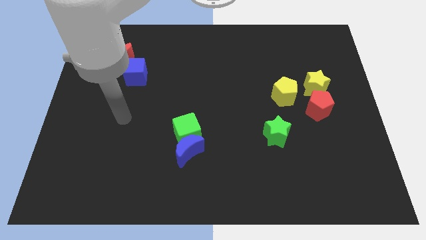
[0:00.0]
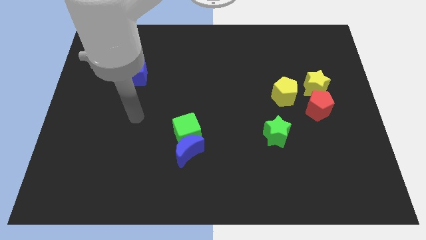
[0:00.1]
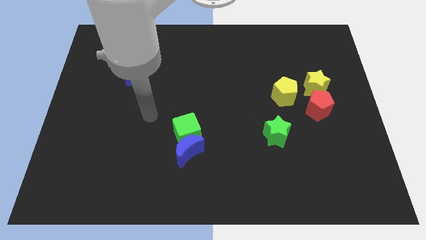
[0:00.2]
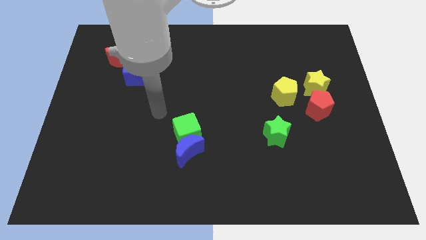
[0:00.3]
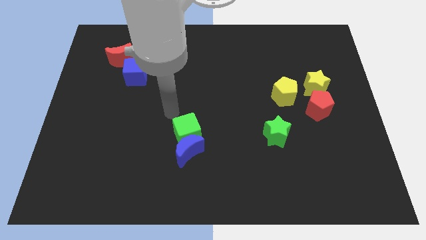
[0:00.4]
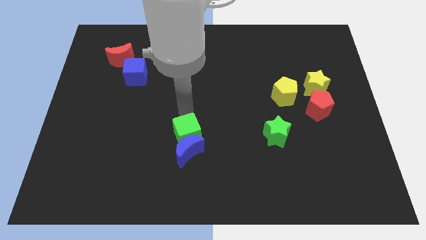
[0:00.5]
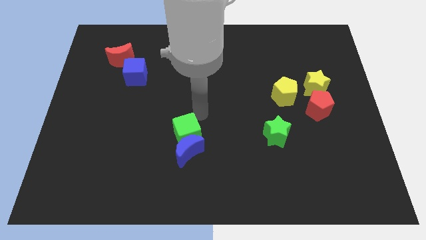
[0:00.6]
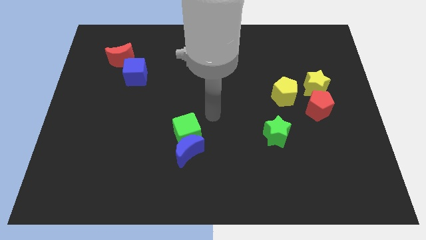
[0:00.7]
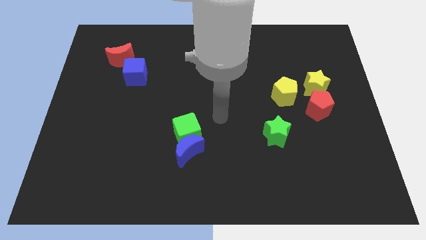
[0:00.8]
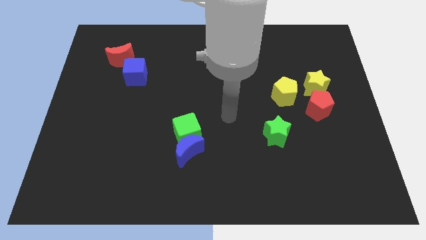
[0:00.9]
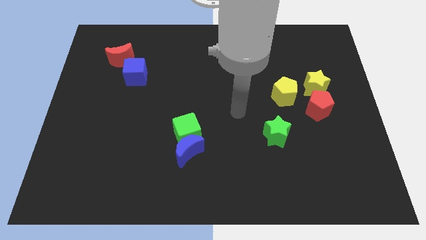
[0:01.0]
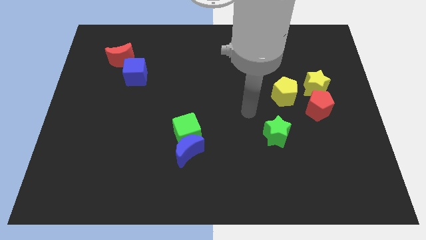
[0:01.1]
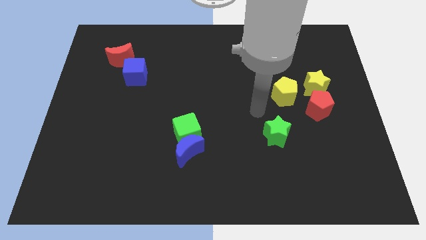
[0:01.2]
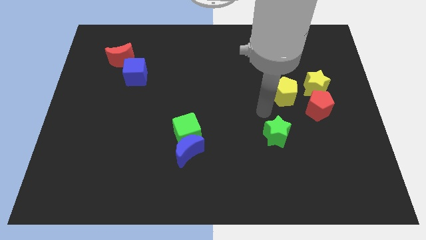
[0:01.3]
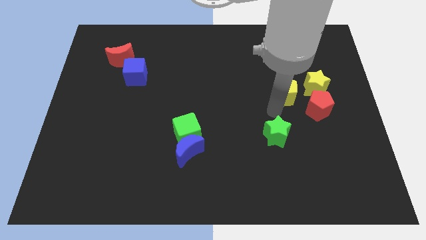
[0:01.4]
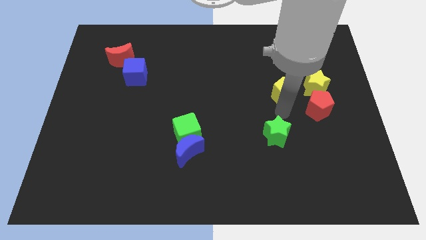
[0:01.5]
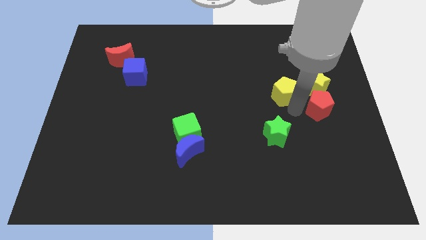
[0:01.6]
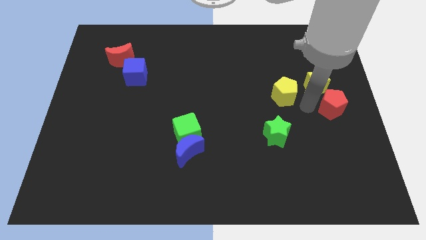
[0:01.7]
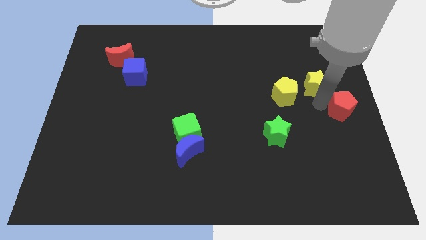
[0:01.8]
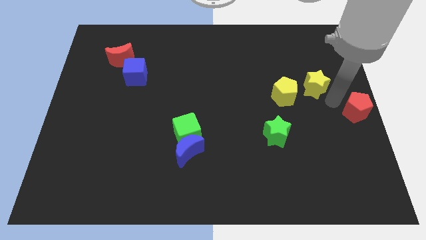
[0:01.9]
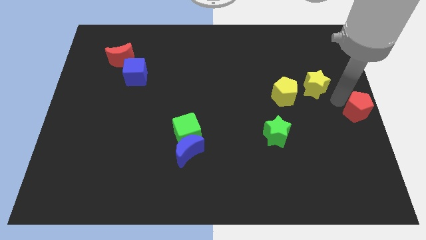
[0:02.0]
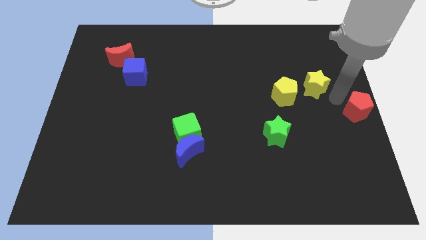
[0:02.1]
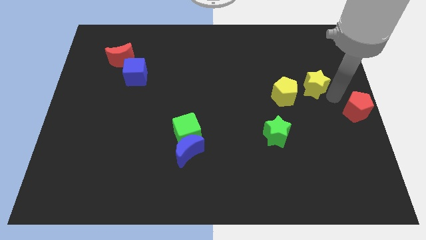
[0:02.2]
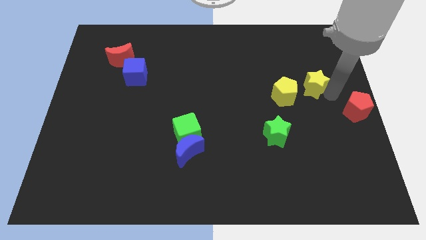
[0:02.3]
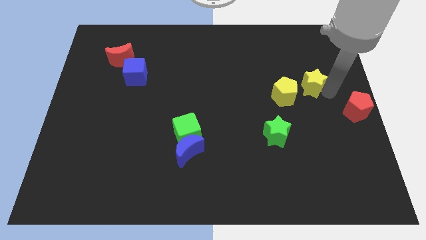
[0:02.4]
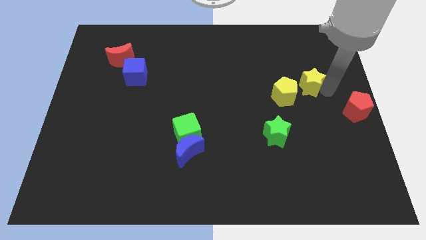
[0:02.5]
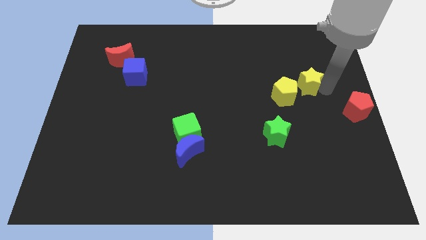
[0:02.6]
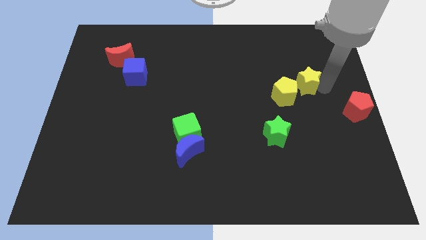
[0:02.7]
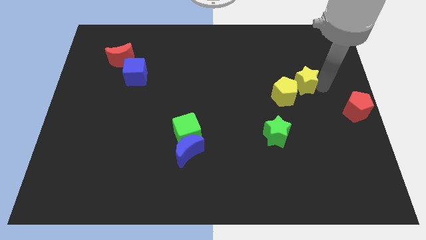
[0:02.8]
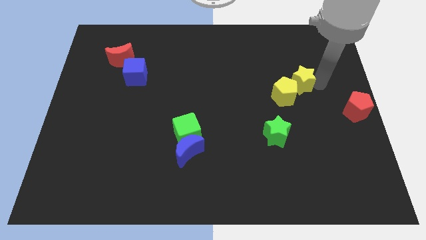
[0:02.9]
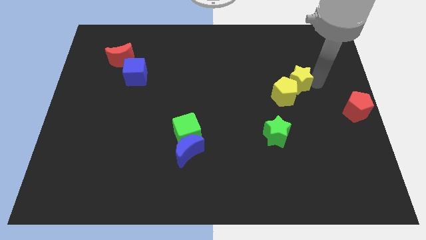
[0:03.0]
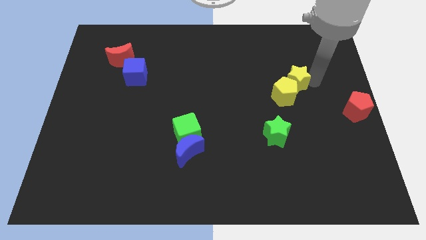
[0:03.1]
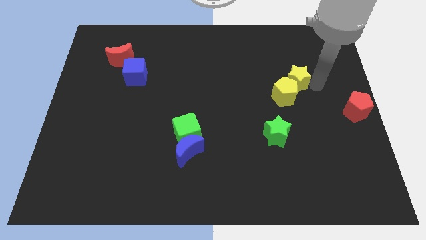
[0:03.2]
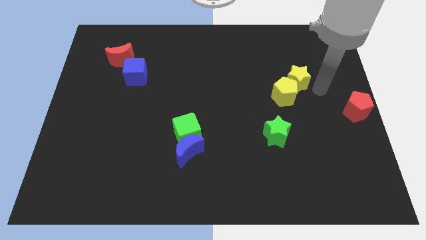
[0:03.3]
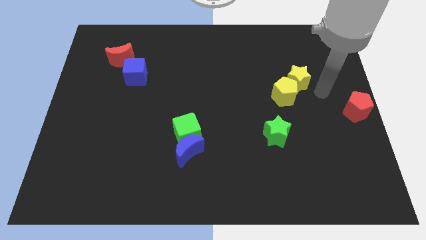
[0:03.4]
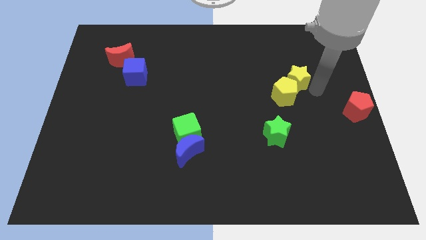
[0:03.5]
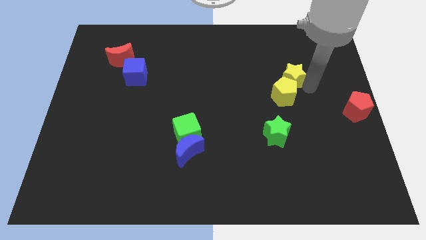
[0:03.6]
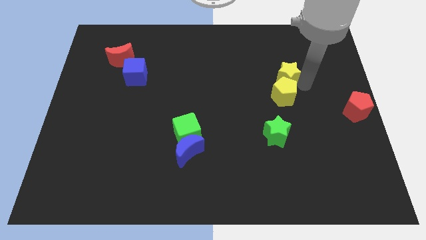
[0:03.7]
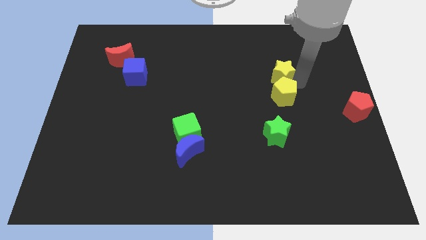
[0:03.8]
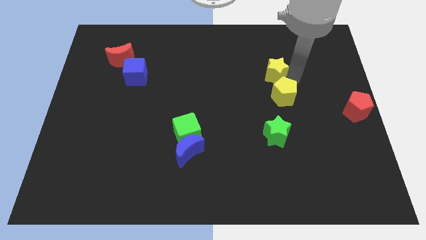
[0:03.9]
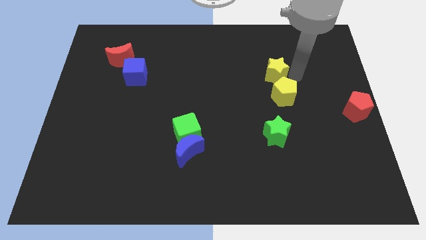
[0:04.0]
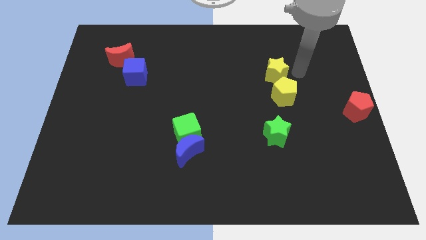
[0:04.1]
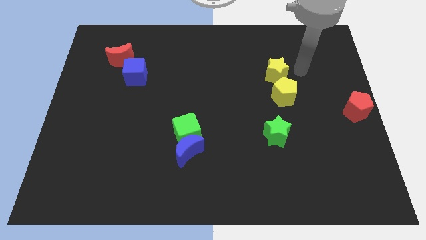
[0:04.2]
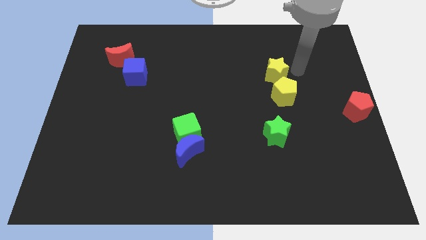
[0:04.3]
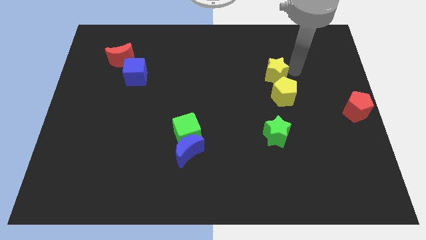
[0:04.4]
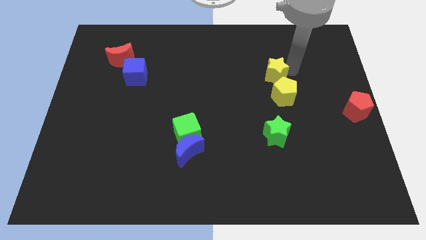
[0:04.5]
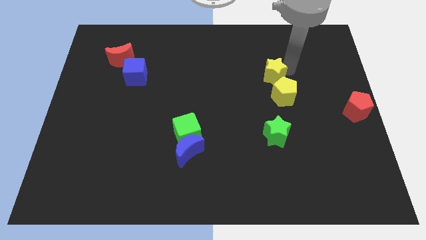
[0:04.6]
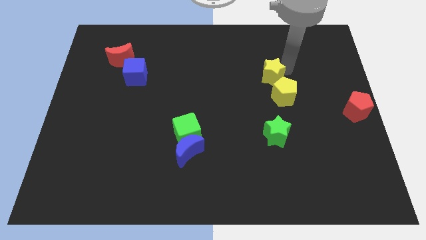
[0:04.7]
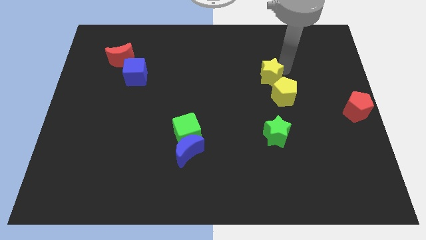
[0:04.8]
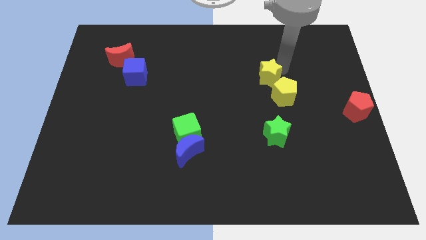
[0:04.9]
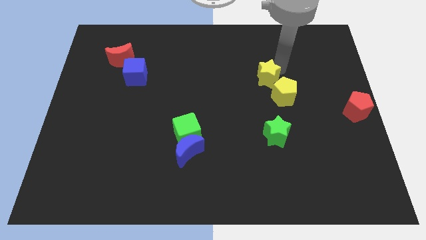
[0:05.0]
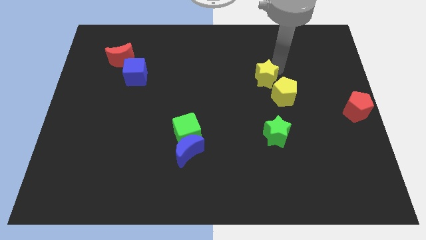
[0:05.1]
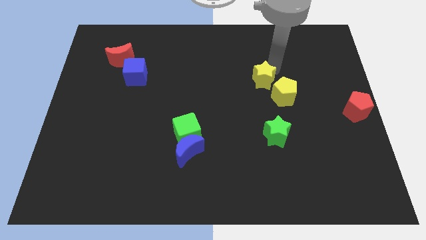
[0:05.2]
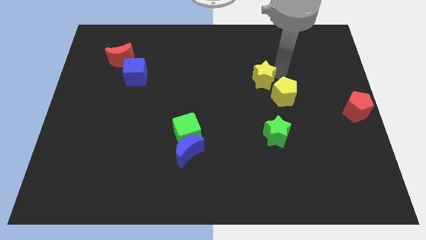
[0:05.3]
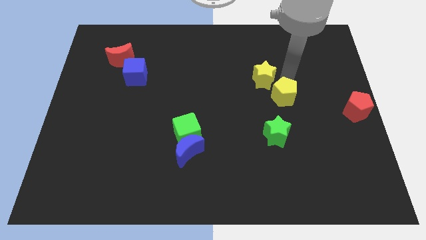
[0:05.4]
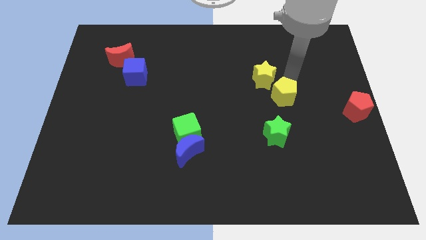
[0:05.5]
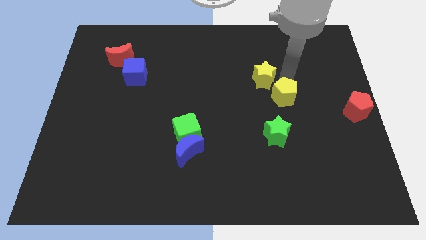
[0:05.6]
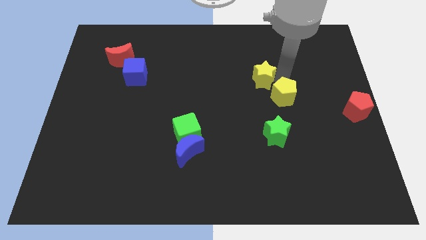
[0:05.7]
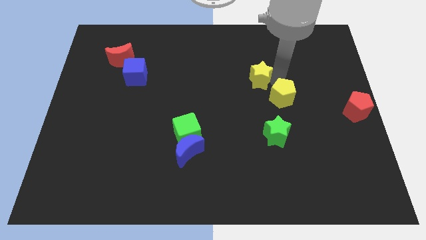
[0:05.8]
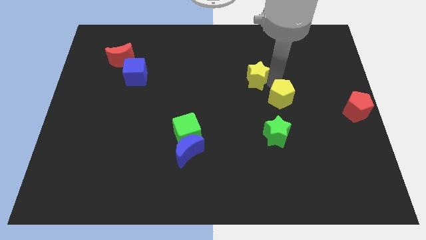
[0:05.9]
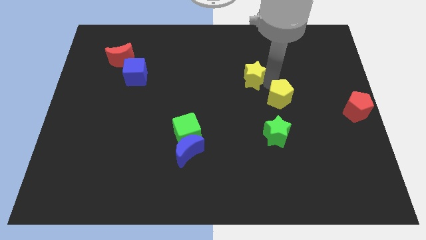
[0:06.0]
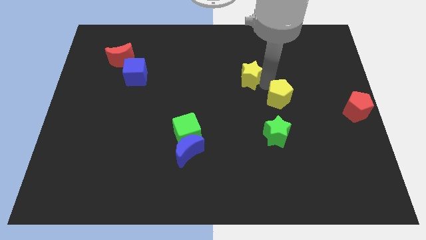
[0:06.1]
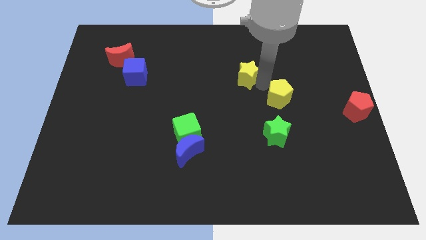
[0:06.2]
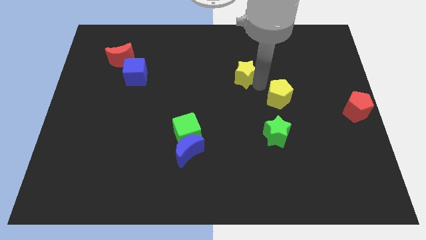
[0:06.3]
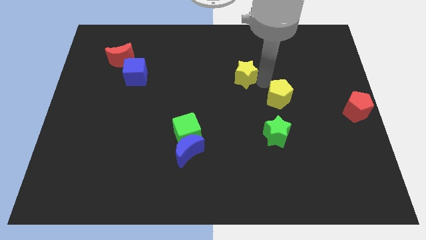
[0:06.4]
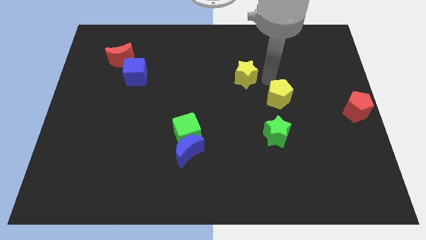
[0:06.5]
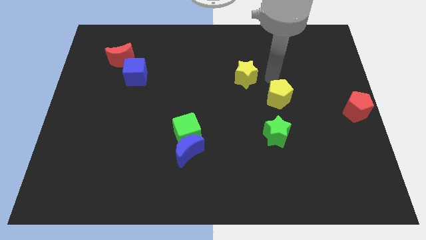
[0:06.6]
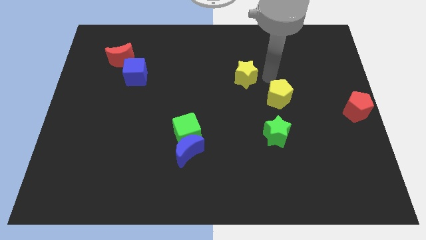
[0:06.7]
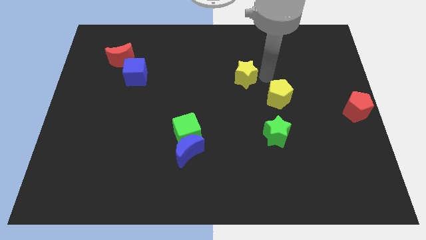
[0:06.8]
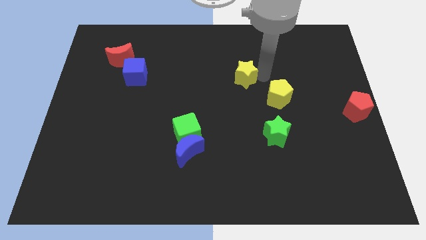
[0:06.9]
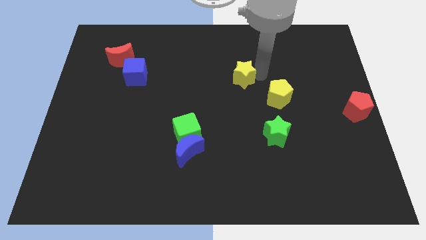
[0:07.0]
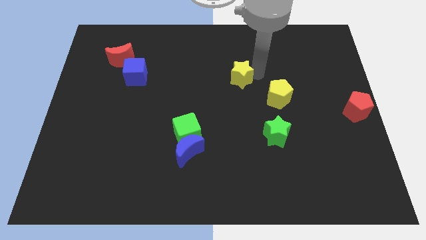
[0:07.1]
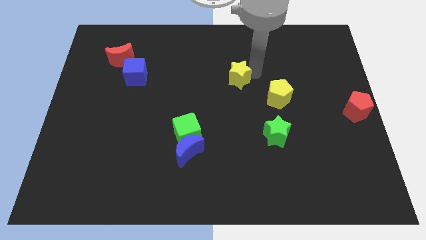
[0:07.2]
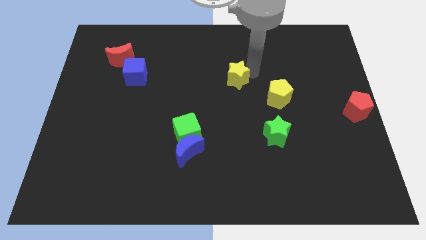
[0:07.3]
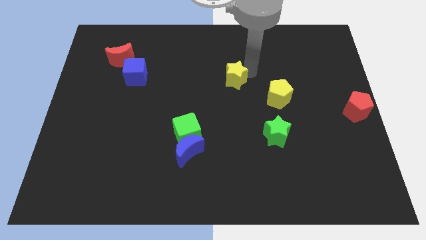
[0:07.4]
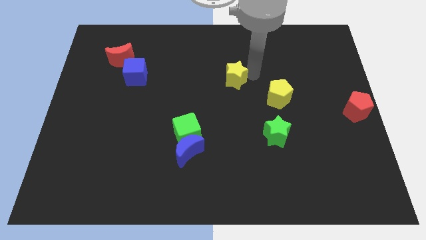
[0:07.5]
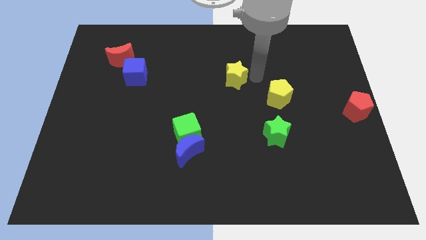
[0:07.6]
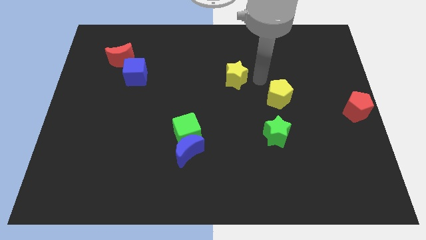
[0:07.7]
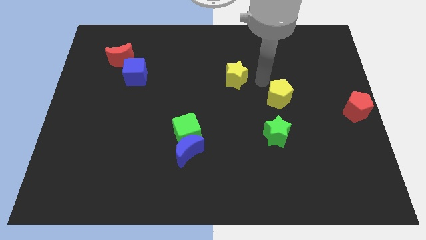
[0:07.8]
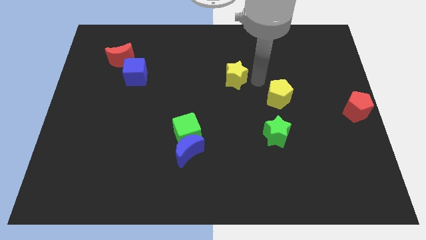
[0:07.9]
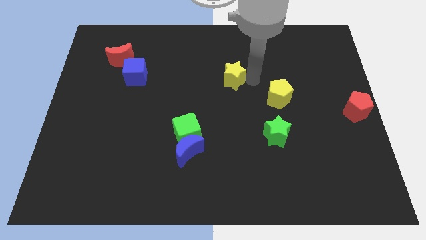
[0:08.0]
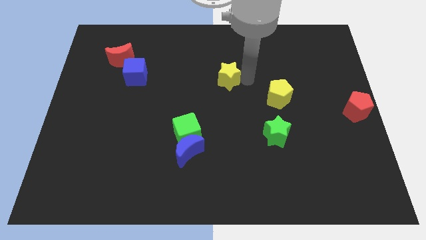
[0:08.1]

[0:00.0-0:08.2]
move the yellow star to the left
